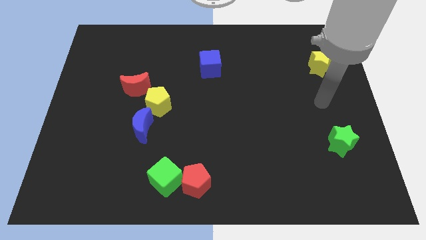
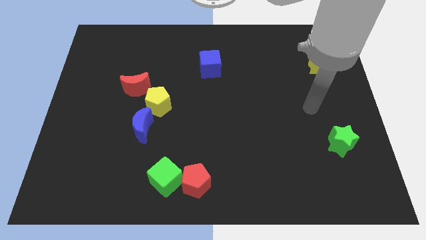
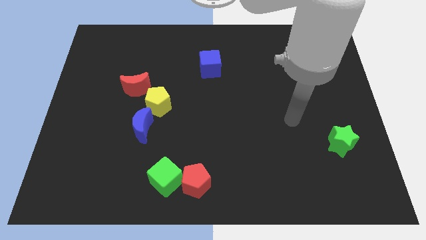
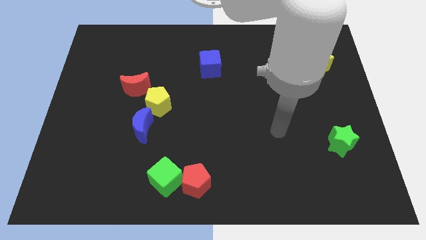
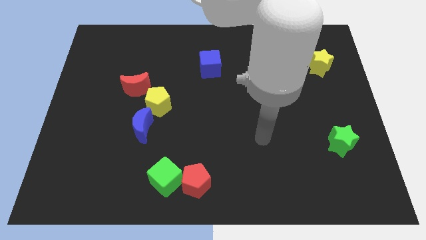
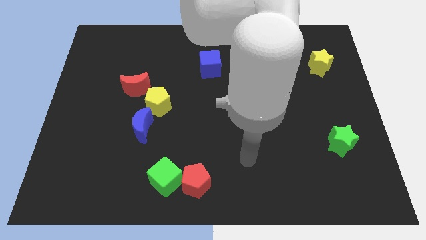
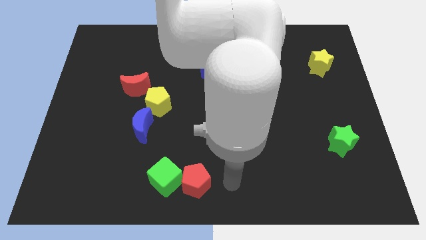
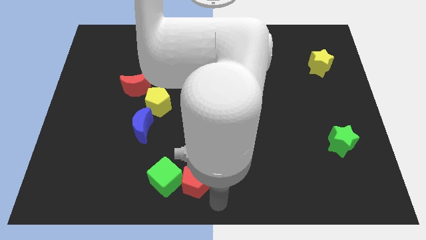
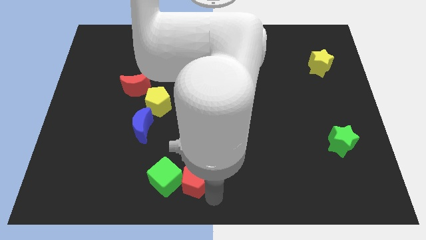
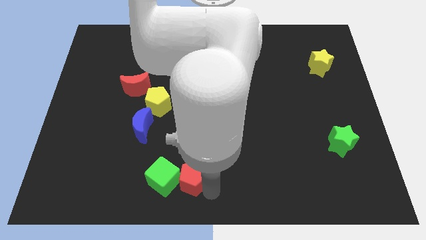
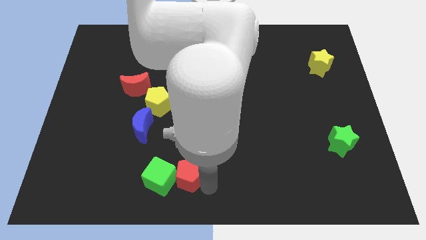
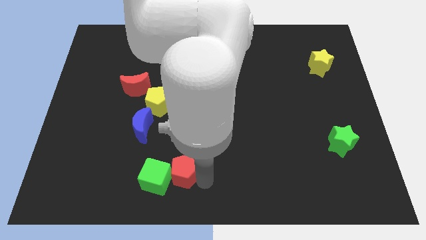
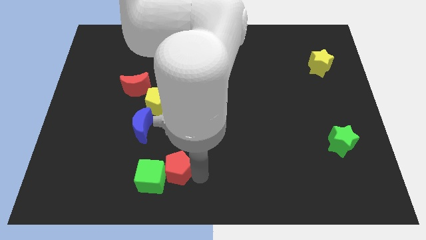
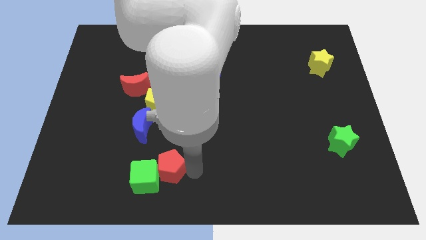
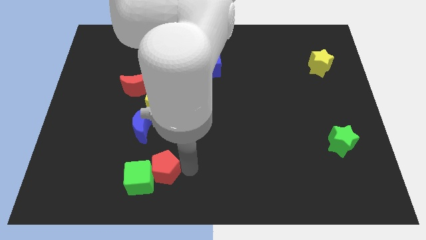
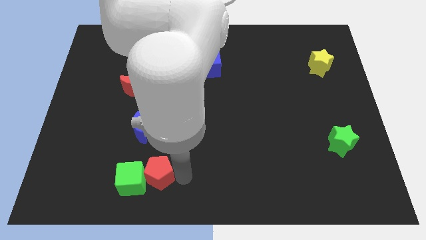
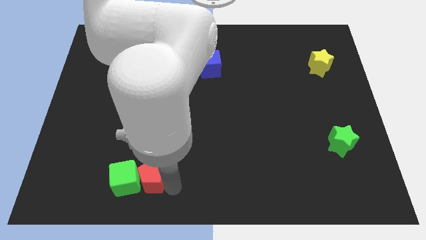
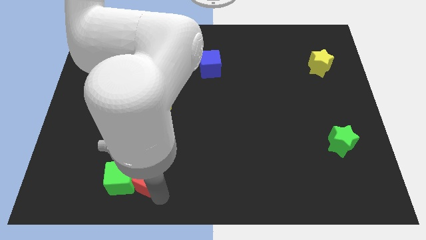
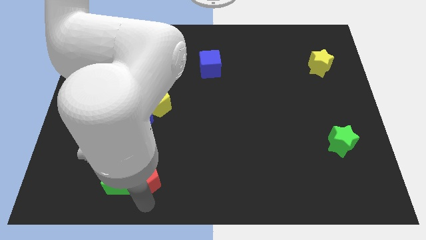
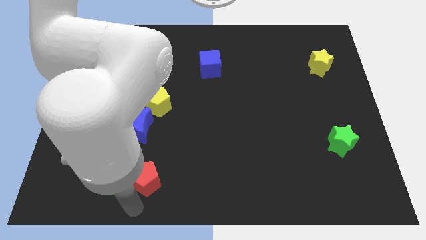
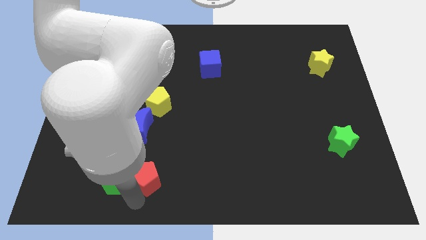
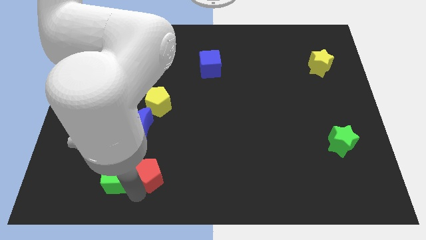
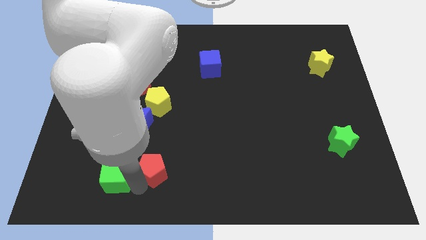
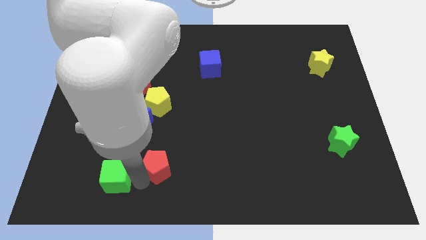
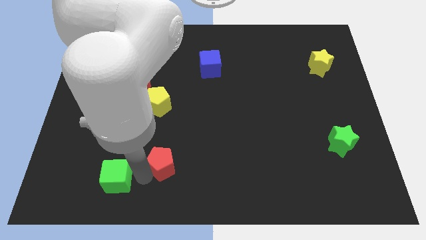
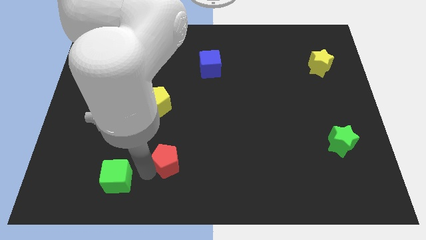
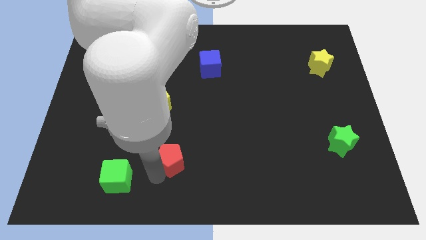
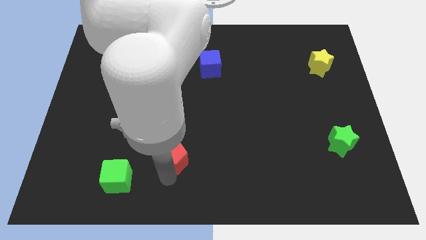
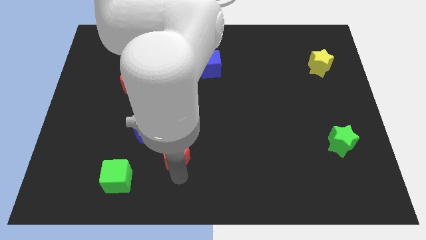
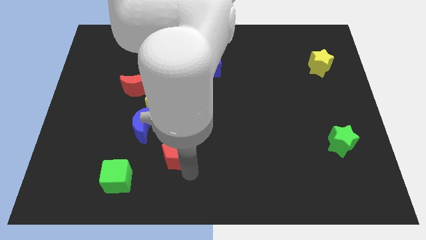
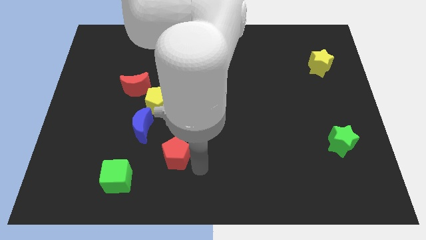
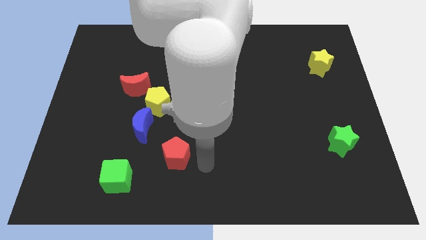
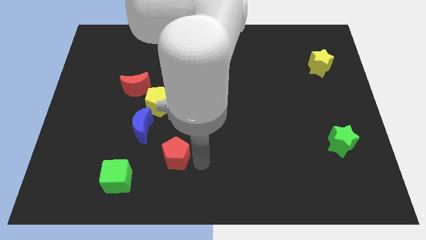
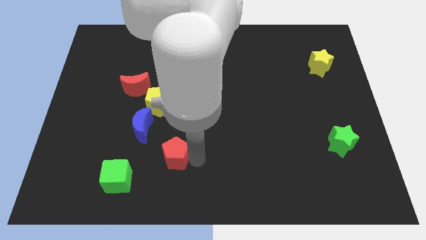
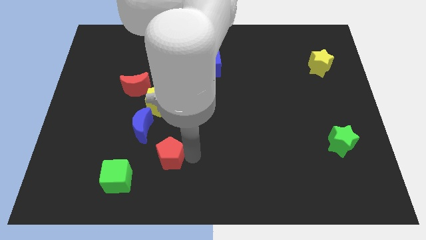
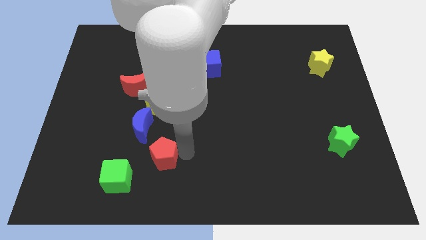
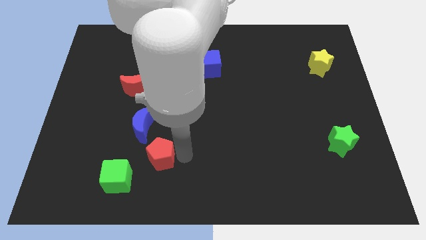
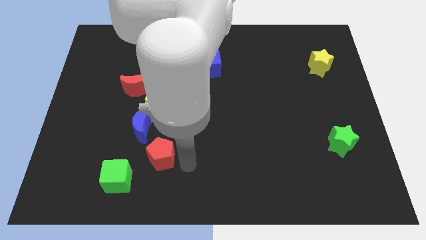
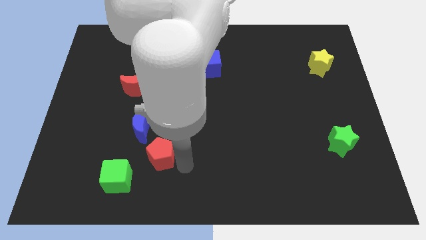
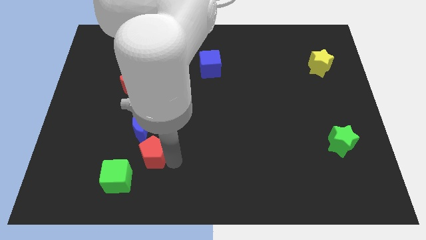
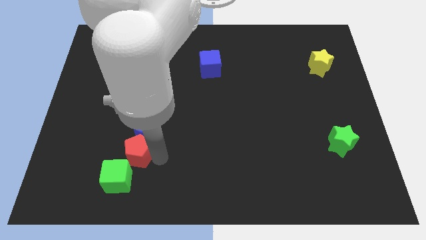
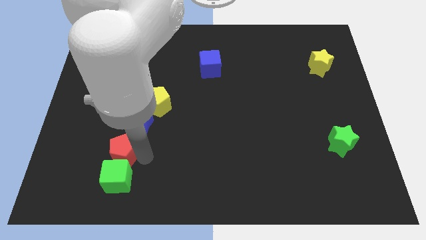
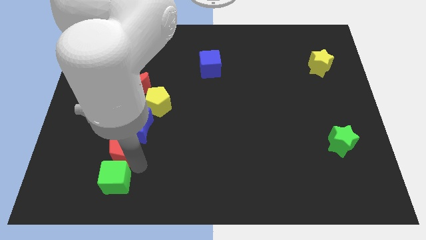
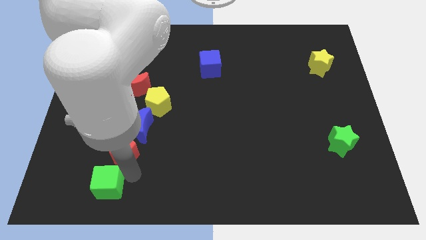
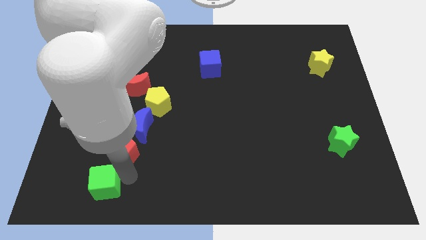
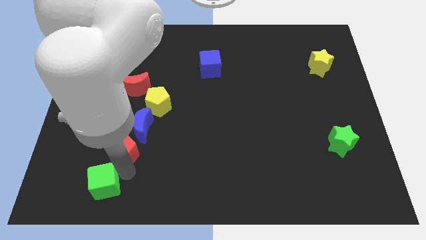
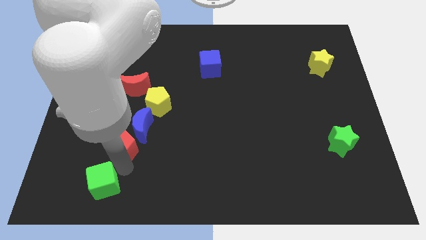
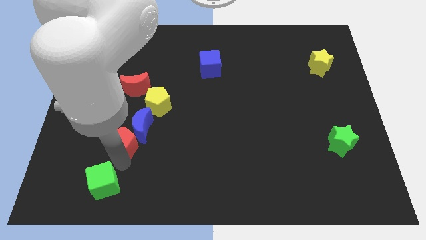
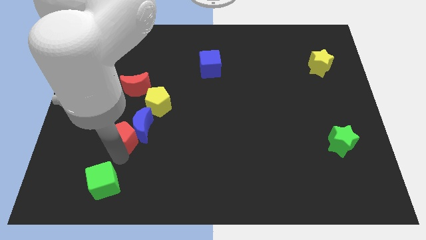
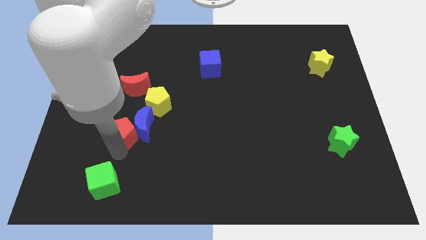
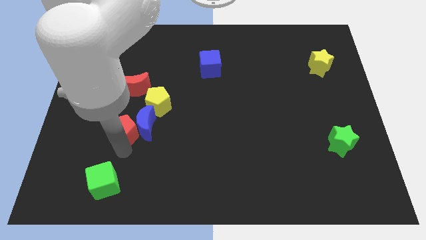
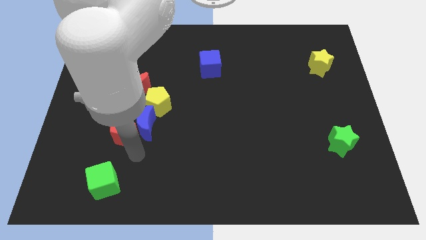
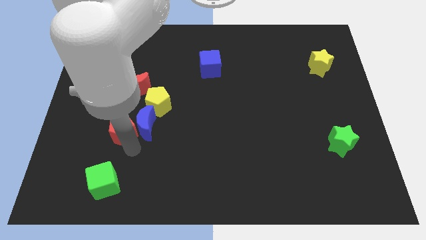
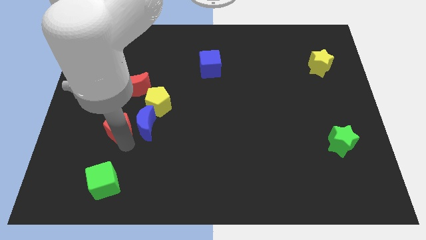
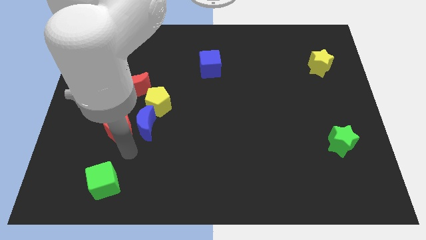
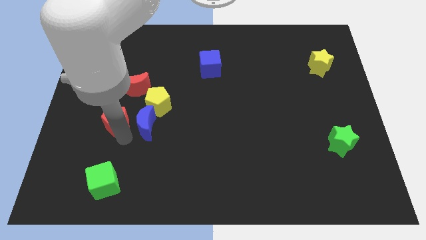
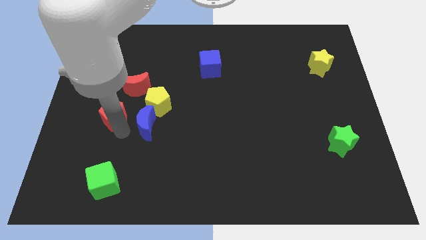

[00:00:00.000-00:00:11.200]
move the red pentagon to the bottom left of the red moon

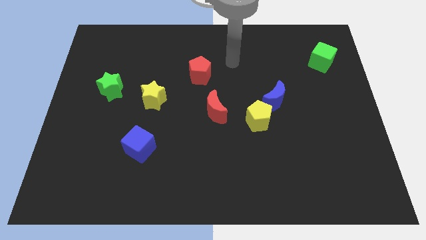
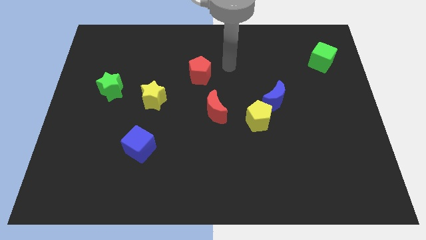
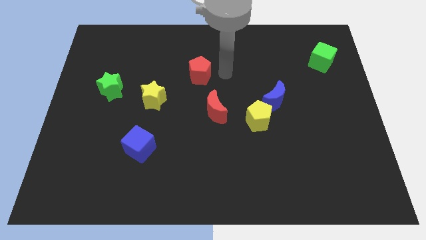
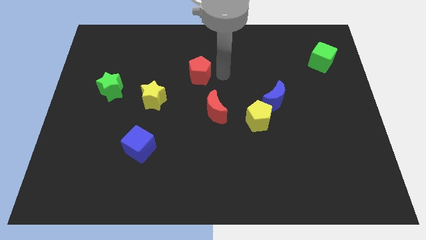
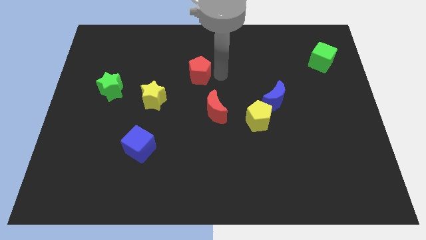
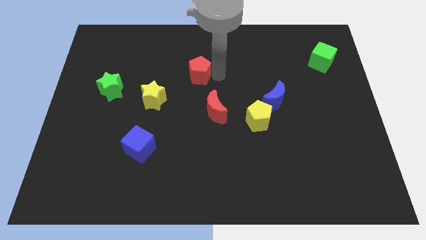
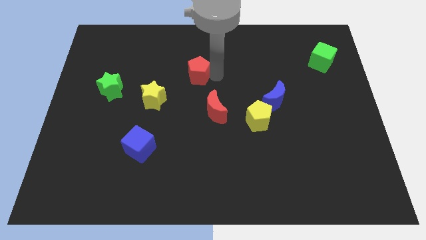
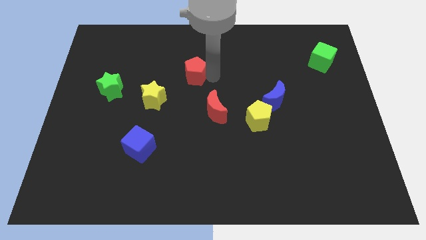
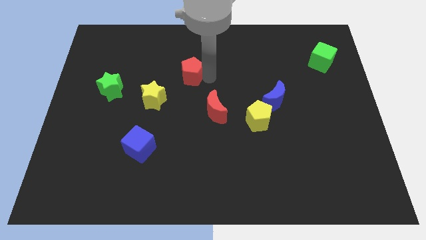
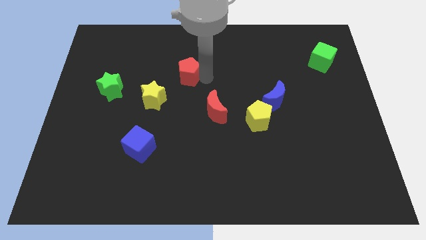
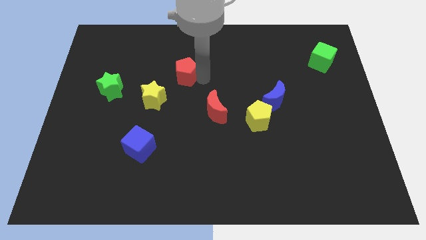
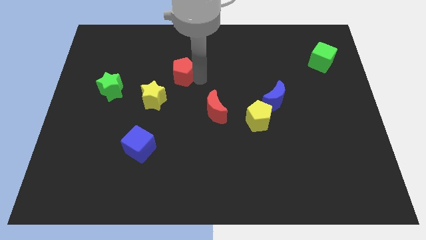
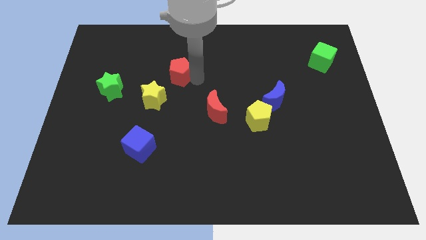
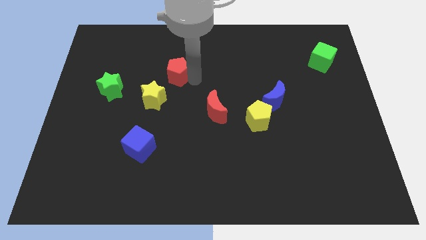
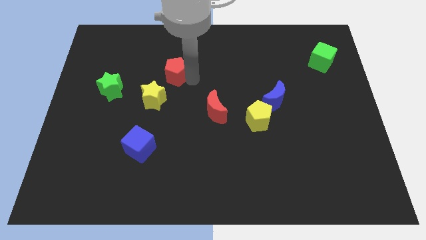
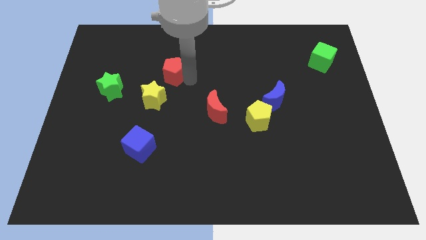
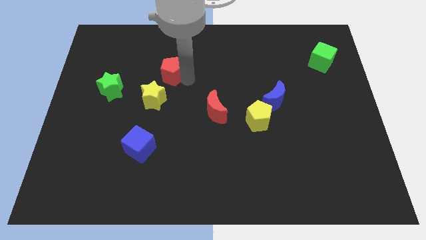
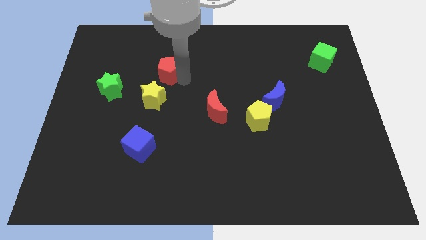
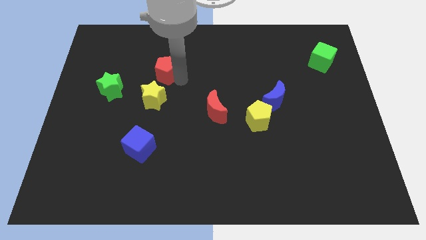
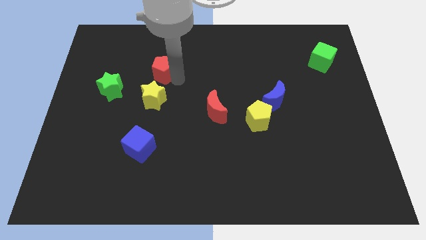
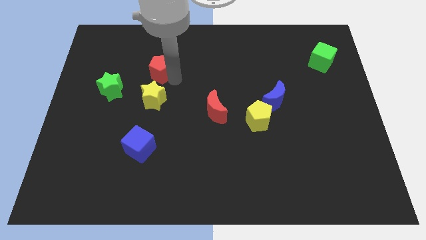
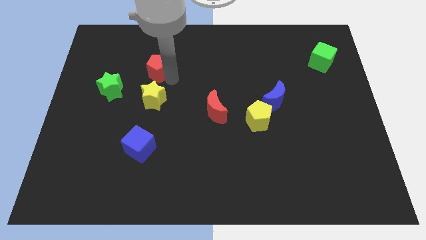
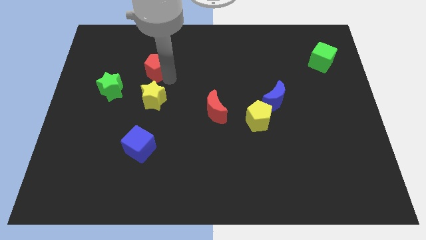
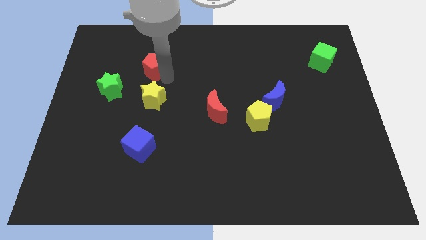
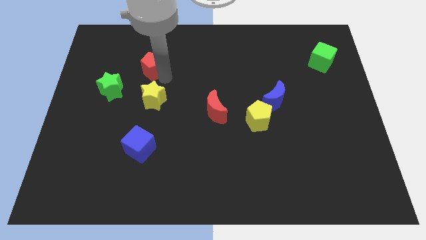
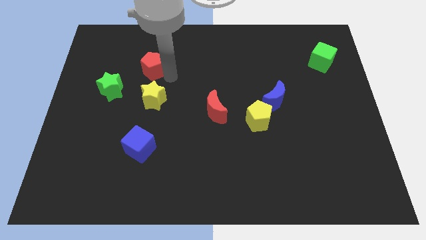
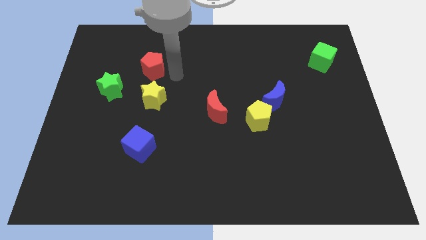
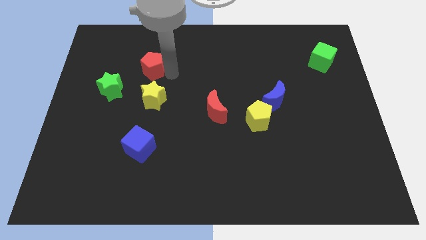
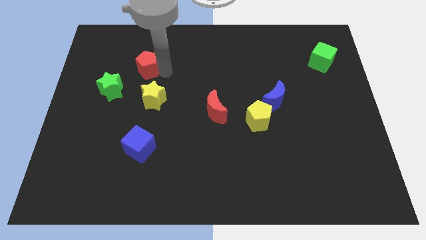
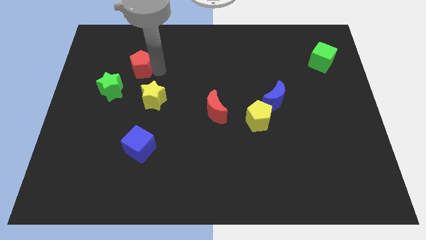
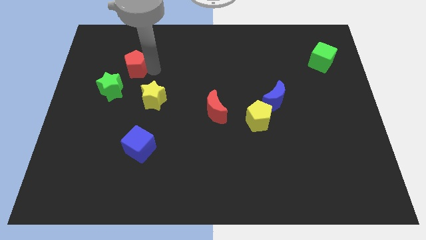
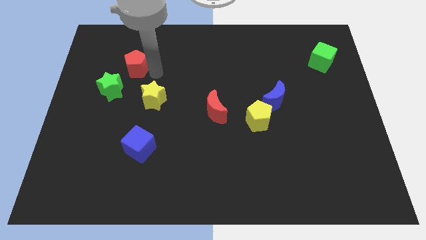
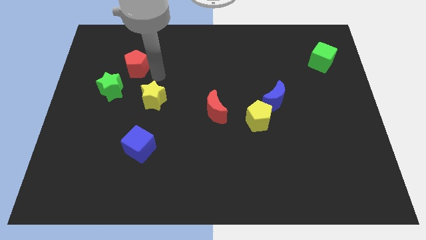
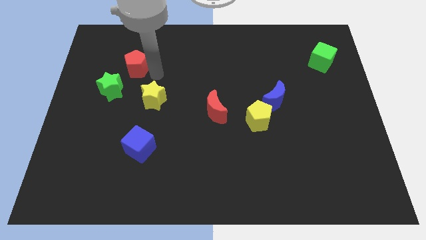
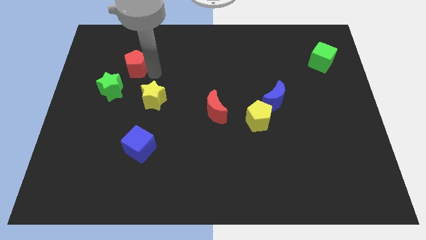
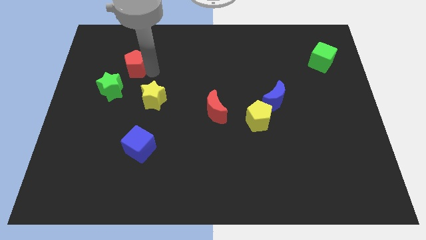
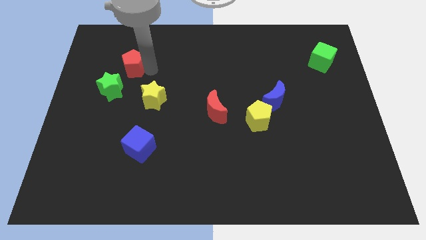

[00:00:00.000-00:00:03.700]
move the red pentagon to the top side of the green star
